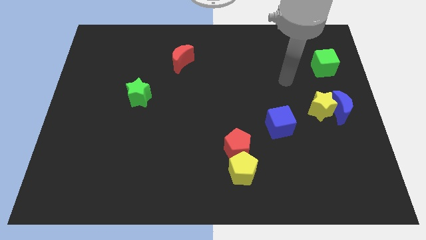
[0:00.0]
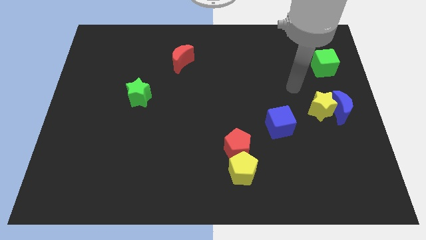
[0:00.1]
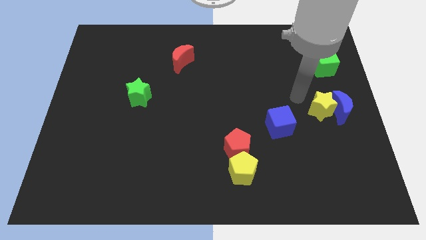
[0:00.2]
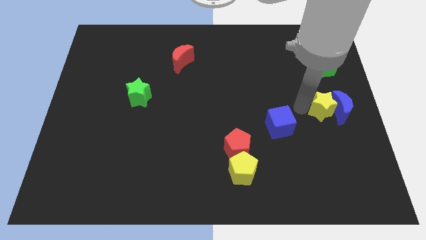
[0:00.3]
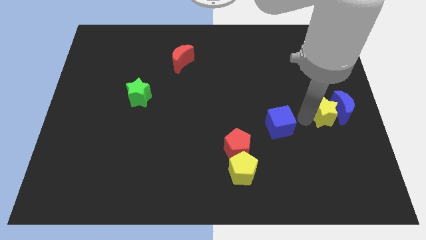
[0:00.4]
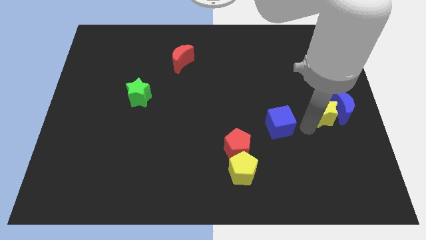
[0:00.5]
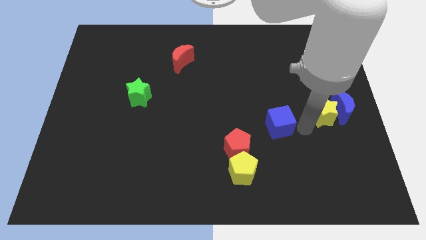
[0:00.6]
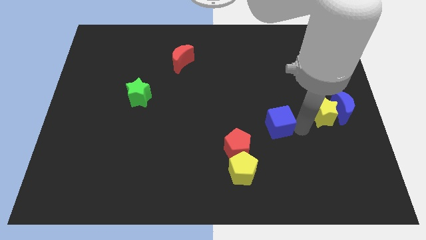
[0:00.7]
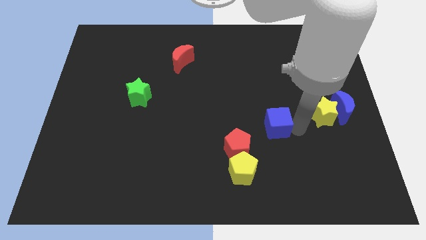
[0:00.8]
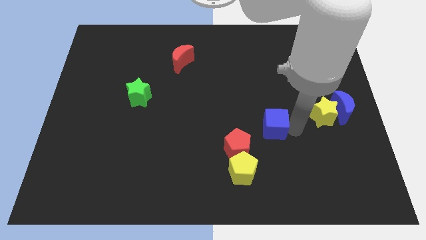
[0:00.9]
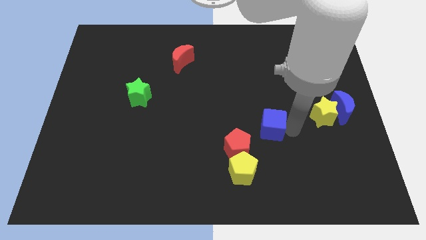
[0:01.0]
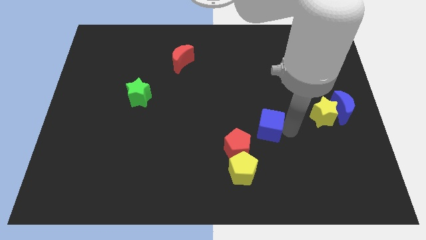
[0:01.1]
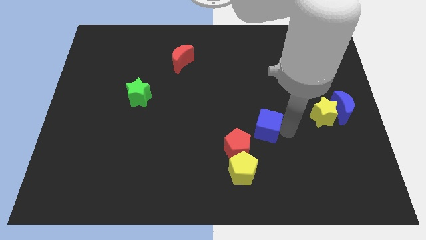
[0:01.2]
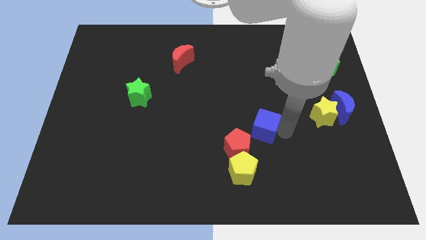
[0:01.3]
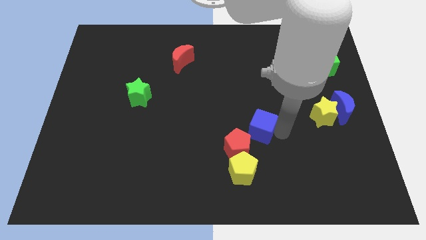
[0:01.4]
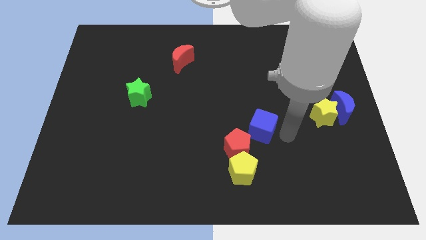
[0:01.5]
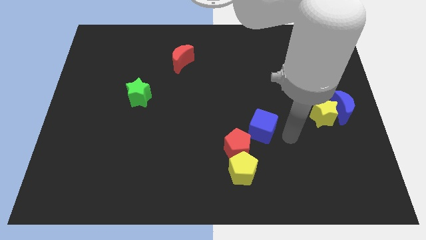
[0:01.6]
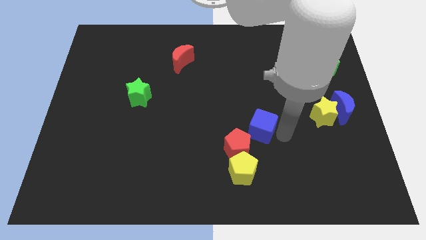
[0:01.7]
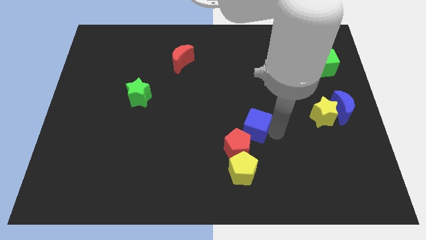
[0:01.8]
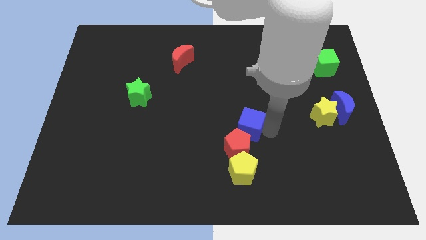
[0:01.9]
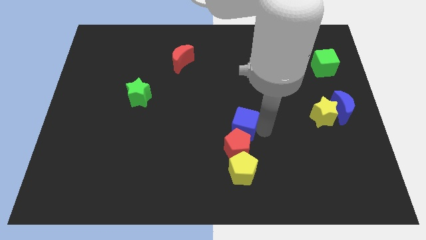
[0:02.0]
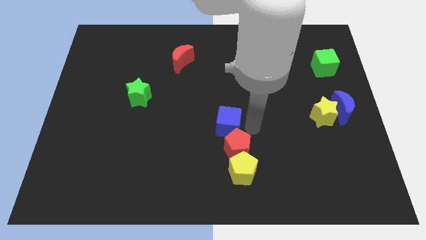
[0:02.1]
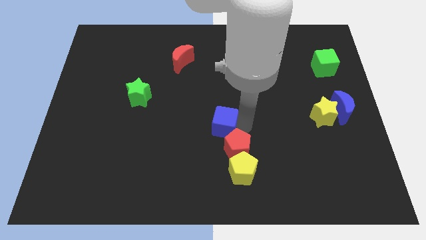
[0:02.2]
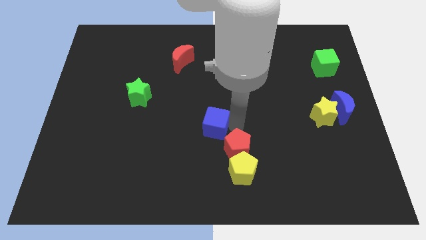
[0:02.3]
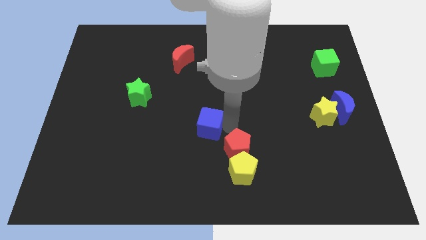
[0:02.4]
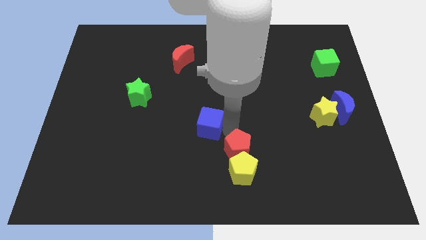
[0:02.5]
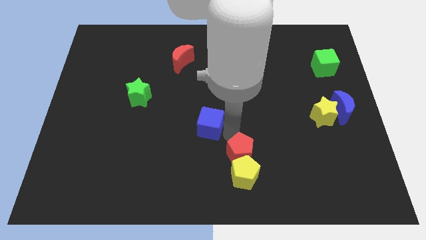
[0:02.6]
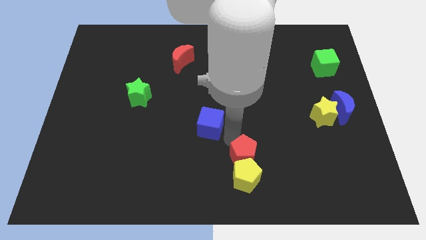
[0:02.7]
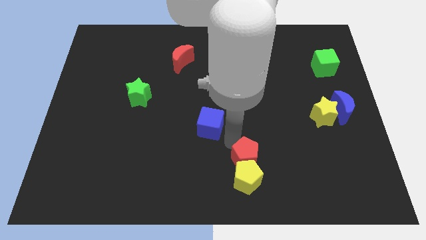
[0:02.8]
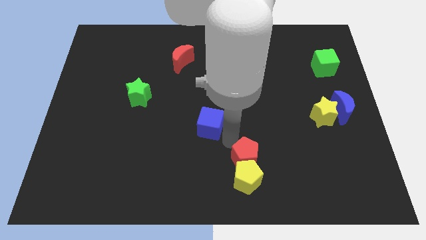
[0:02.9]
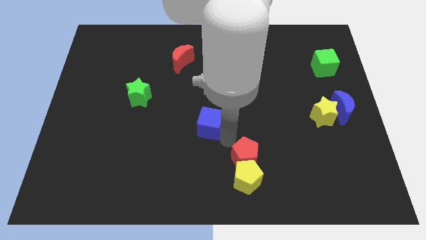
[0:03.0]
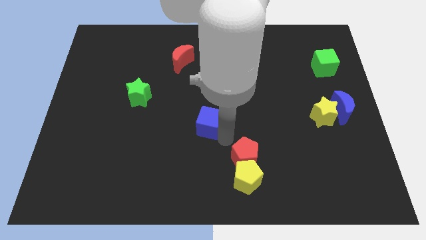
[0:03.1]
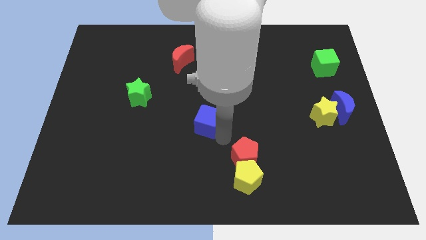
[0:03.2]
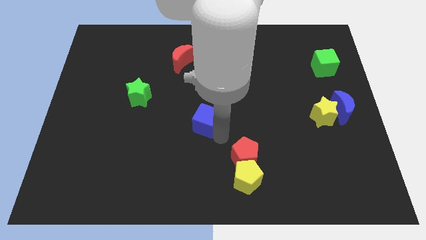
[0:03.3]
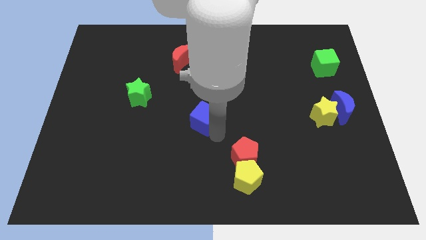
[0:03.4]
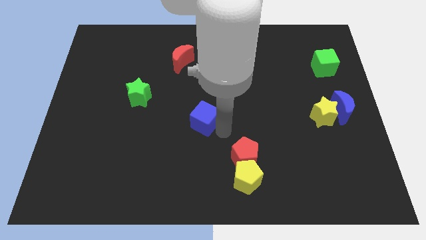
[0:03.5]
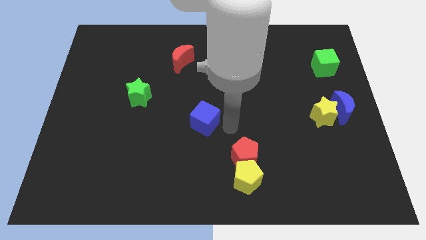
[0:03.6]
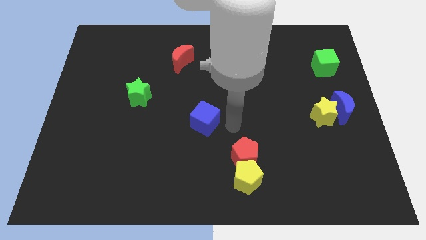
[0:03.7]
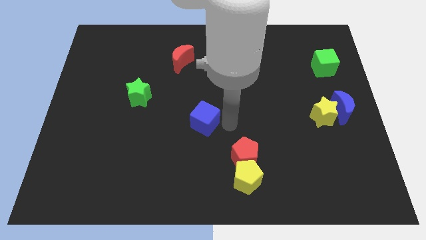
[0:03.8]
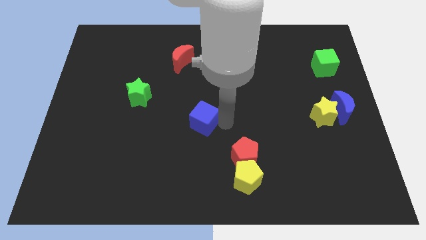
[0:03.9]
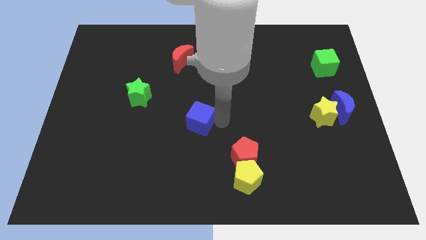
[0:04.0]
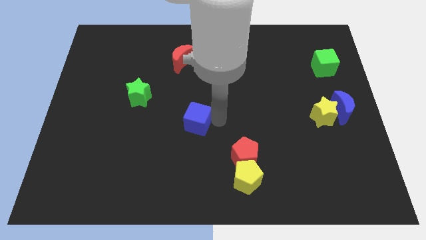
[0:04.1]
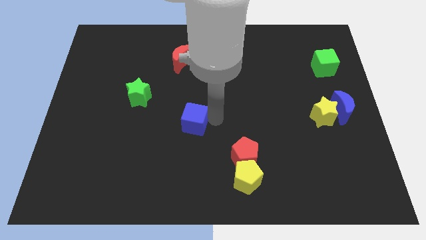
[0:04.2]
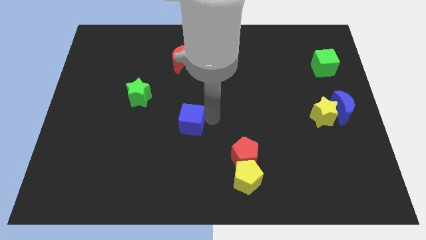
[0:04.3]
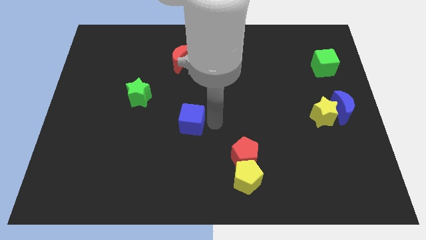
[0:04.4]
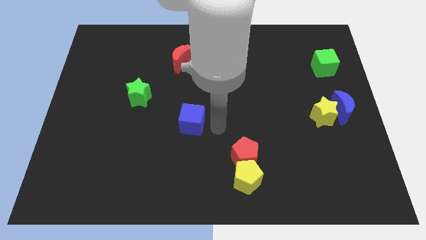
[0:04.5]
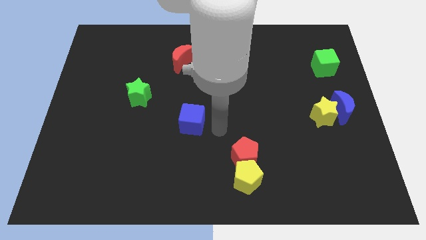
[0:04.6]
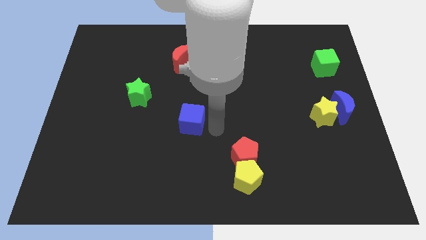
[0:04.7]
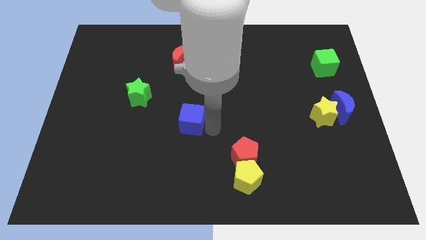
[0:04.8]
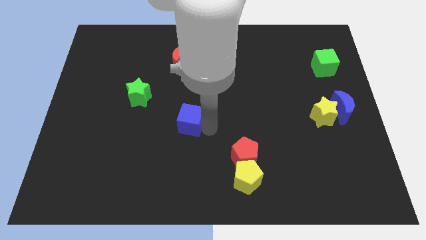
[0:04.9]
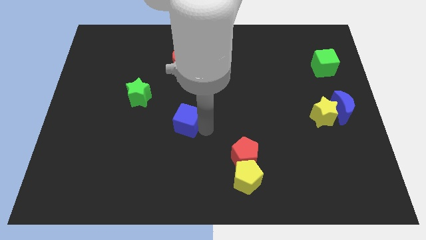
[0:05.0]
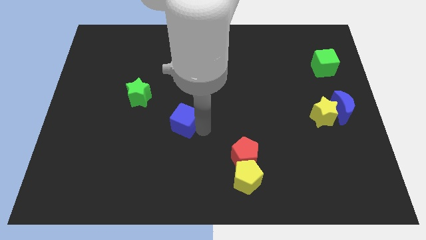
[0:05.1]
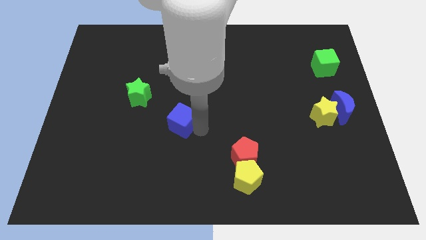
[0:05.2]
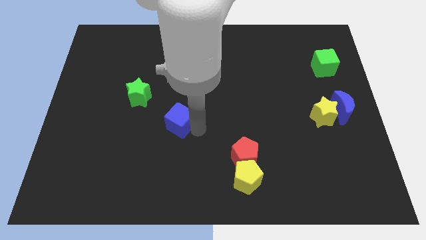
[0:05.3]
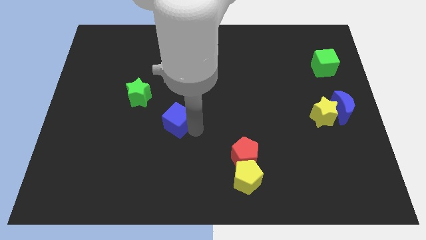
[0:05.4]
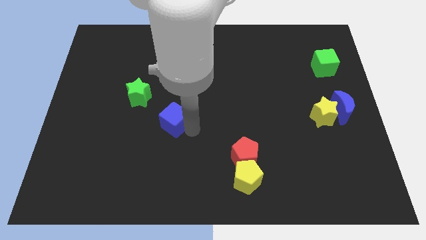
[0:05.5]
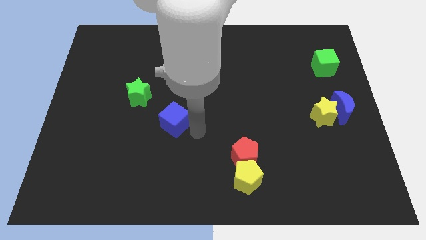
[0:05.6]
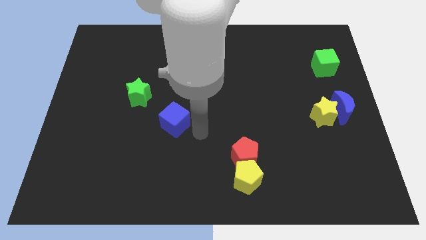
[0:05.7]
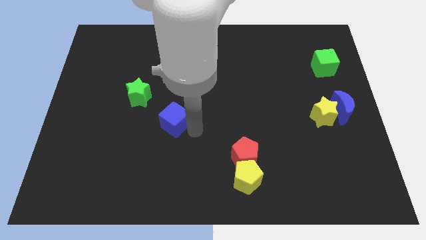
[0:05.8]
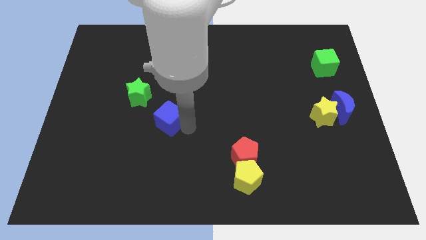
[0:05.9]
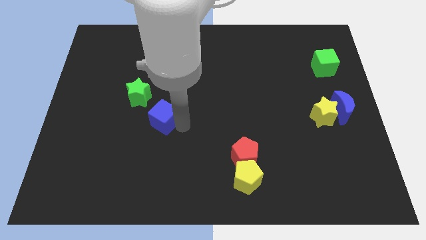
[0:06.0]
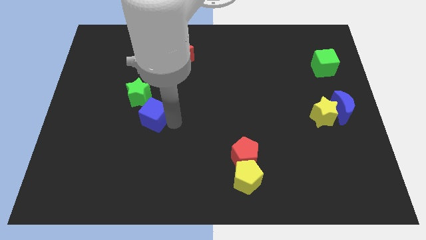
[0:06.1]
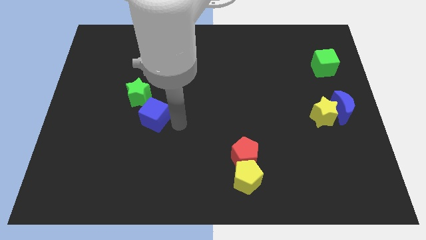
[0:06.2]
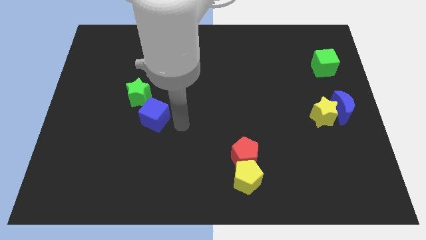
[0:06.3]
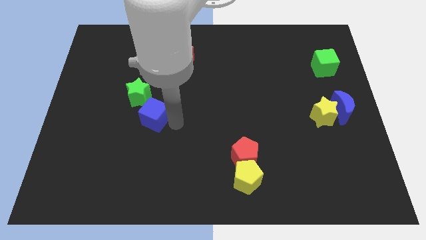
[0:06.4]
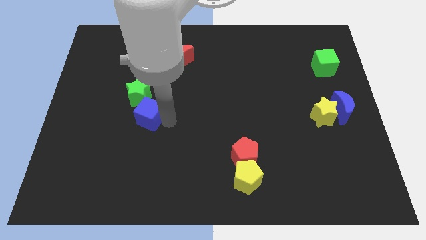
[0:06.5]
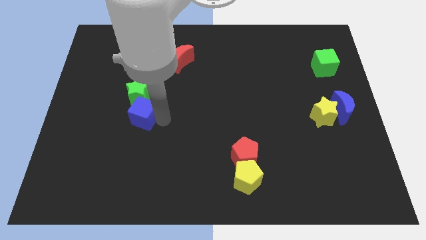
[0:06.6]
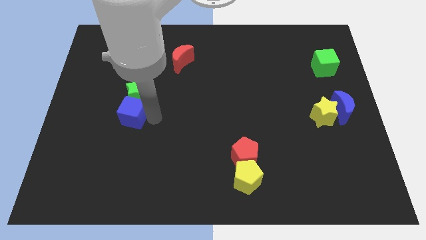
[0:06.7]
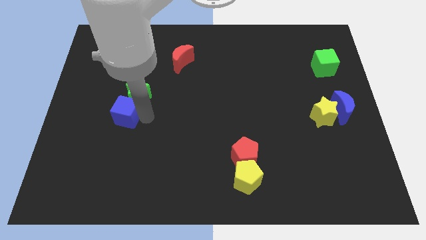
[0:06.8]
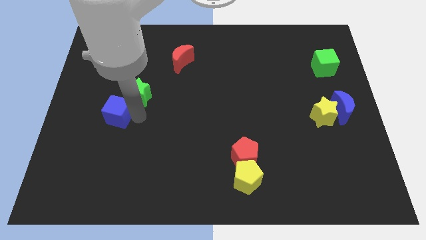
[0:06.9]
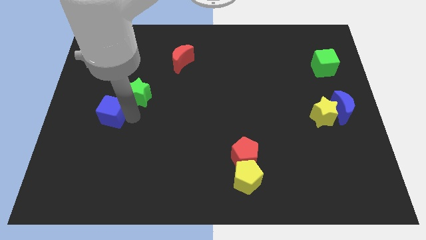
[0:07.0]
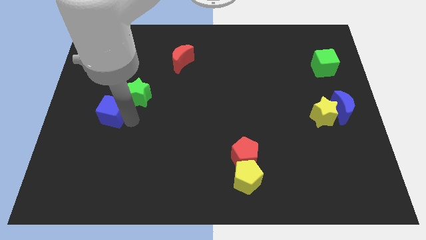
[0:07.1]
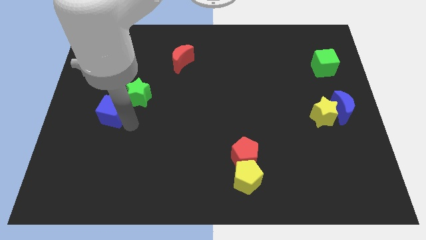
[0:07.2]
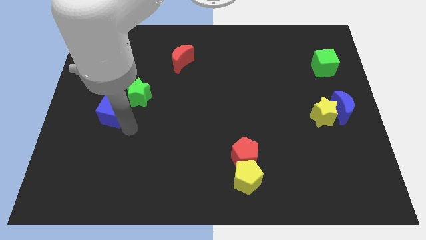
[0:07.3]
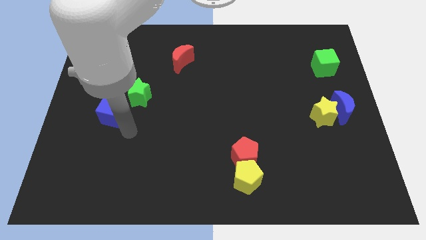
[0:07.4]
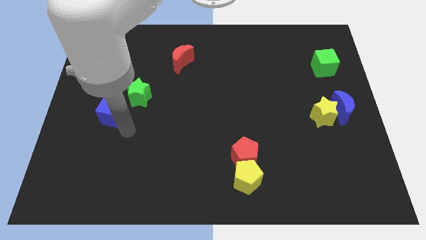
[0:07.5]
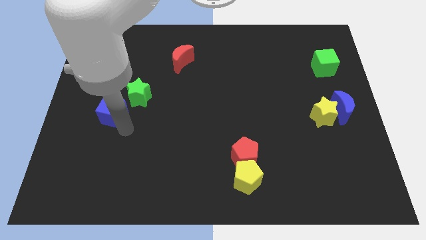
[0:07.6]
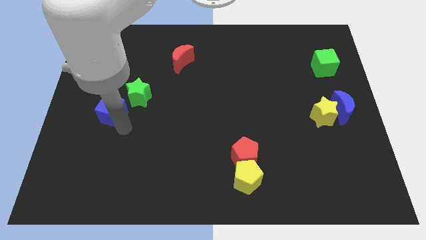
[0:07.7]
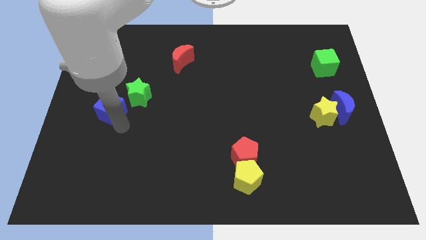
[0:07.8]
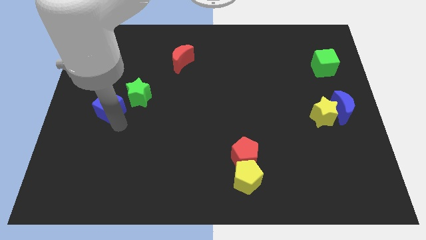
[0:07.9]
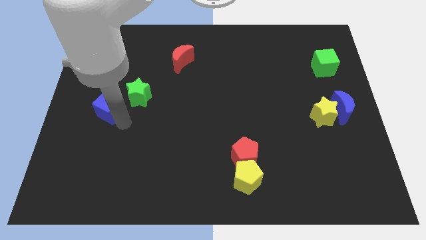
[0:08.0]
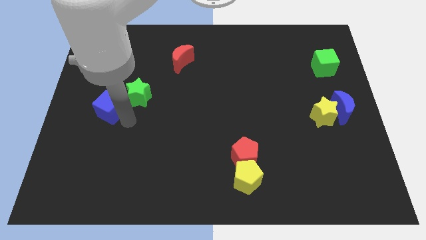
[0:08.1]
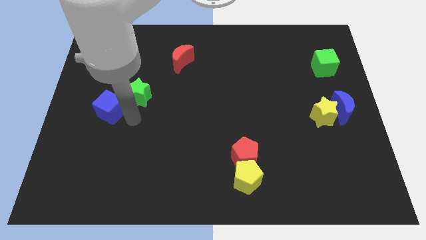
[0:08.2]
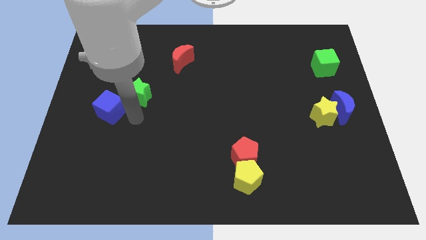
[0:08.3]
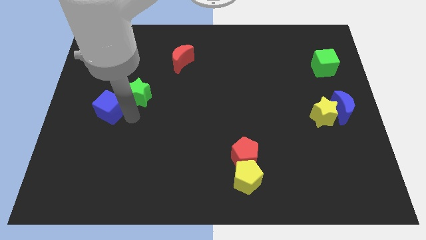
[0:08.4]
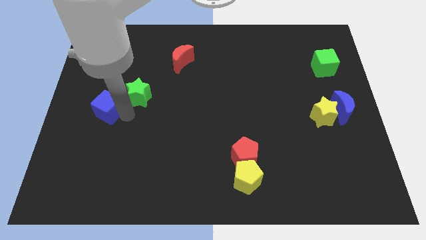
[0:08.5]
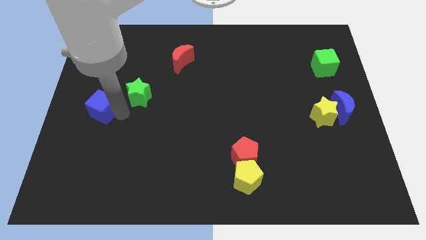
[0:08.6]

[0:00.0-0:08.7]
push the blue cube to the center left
